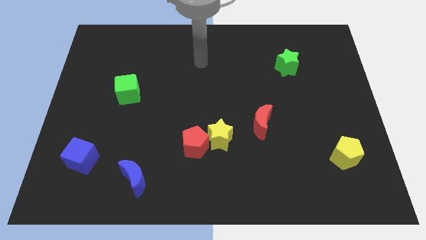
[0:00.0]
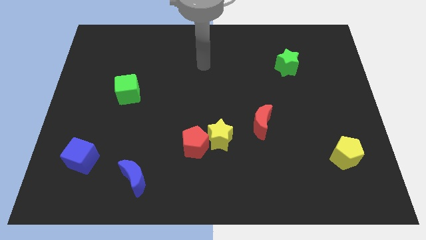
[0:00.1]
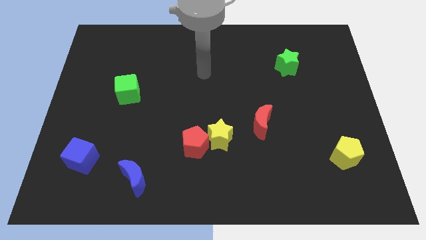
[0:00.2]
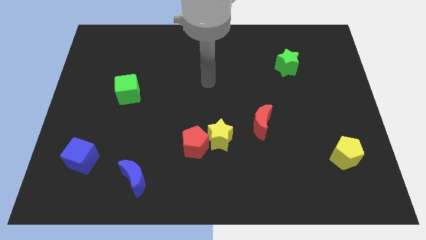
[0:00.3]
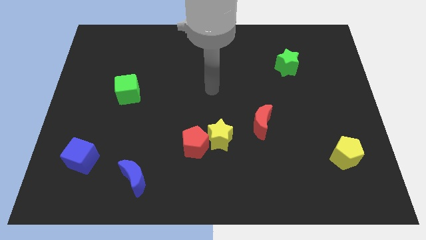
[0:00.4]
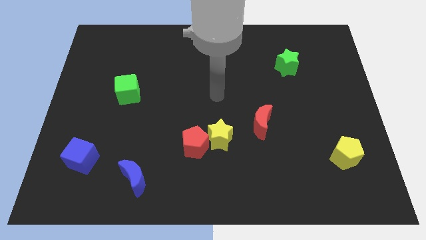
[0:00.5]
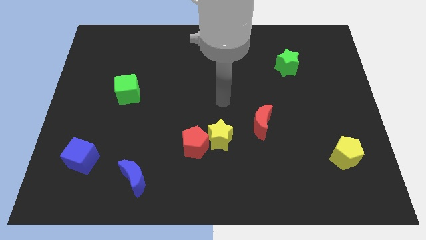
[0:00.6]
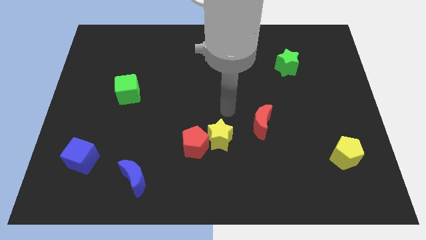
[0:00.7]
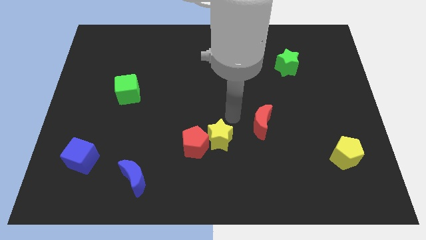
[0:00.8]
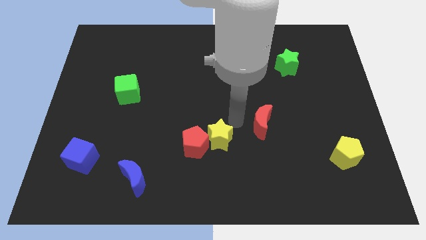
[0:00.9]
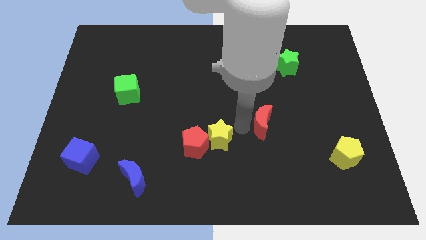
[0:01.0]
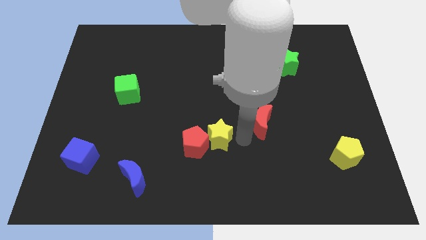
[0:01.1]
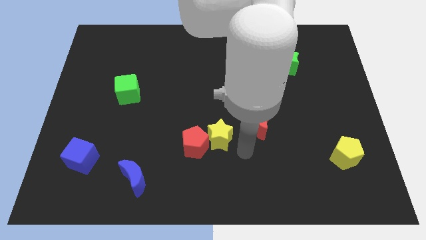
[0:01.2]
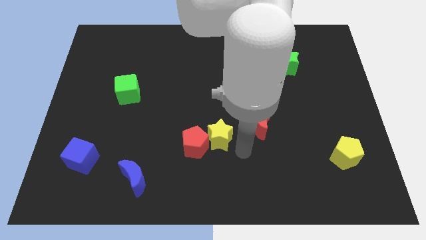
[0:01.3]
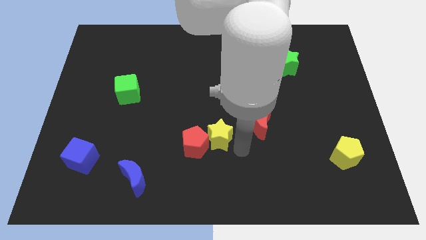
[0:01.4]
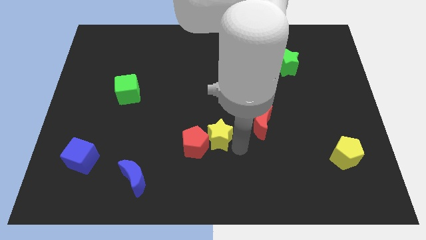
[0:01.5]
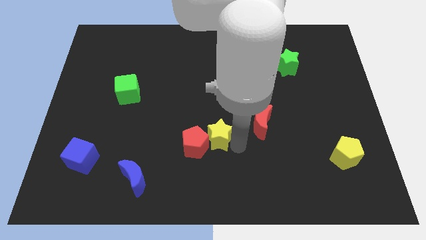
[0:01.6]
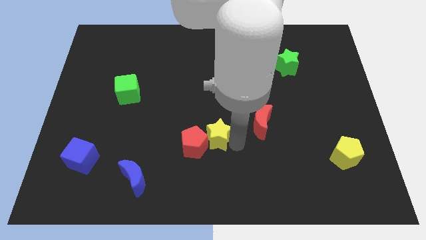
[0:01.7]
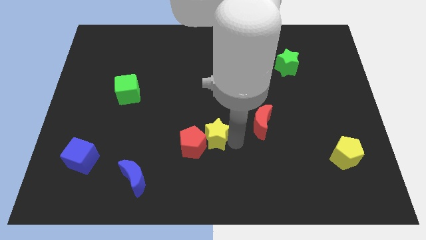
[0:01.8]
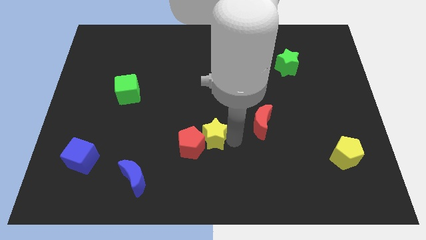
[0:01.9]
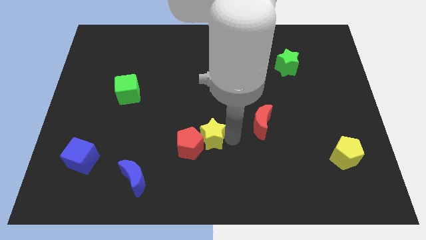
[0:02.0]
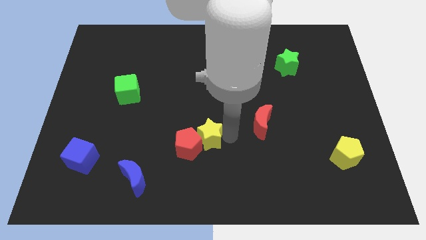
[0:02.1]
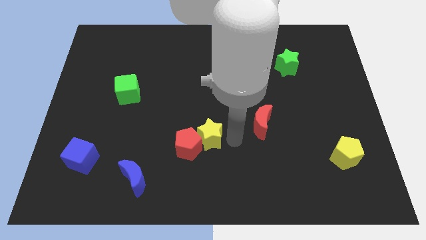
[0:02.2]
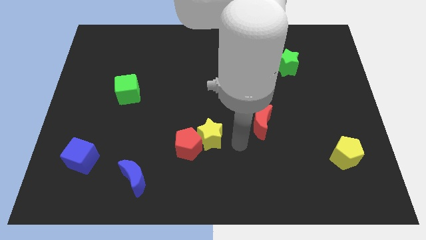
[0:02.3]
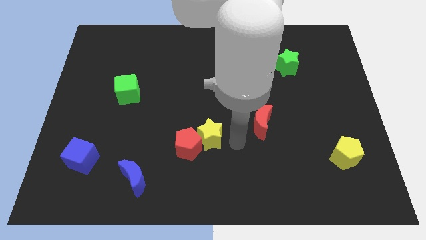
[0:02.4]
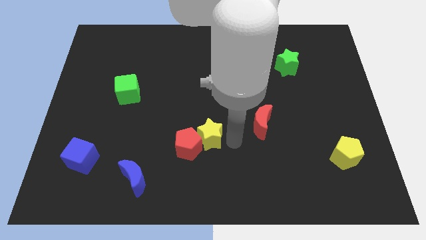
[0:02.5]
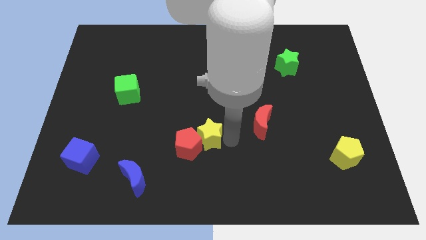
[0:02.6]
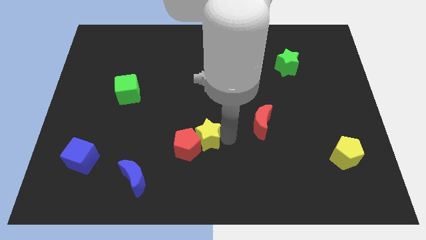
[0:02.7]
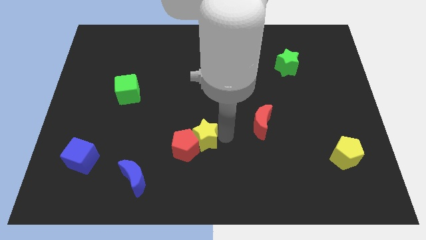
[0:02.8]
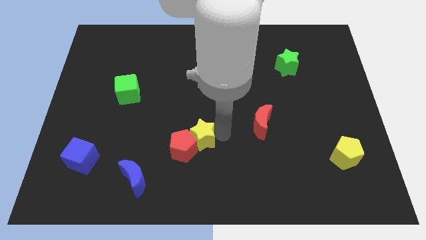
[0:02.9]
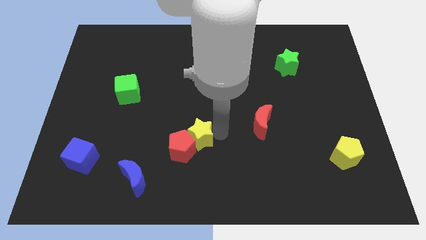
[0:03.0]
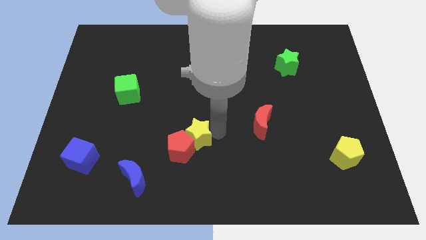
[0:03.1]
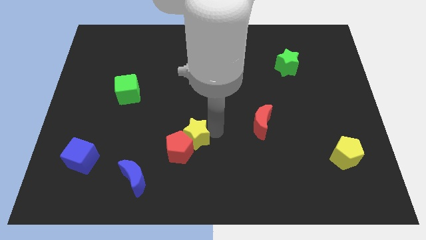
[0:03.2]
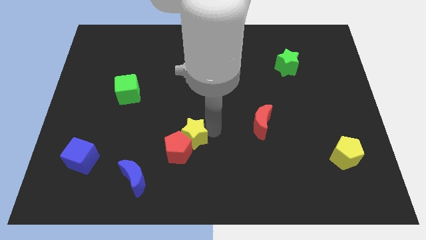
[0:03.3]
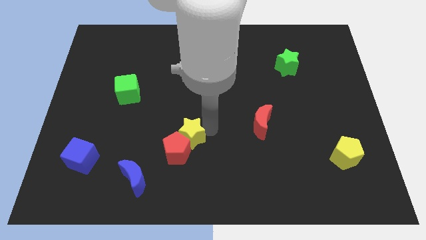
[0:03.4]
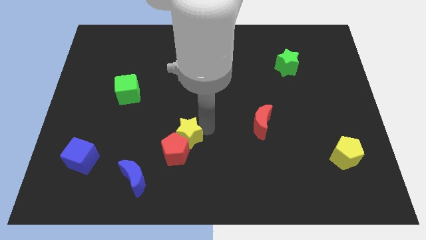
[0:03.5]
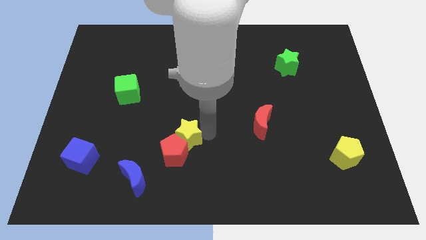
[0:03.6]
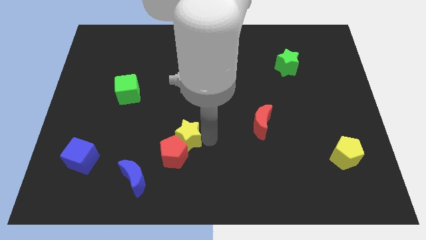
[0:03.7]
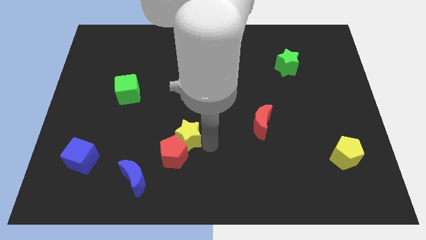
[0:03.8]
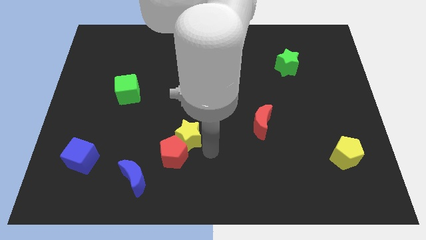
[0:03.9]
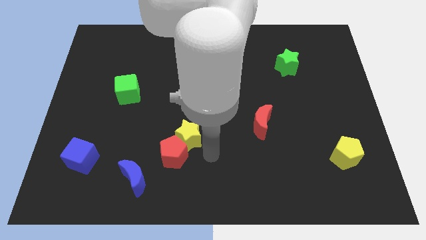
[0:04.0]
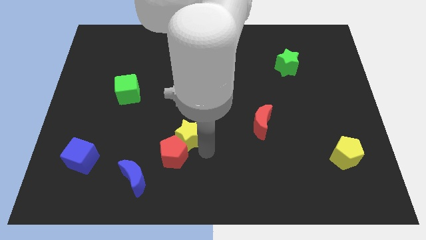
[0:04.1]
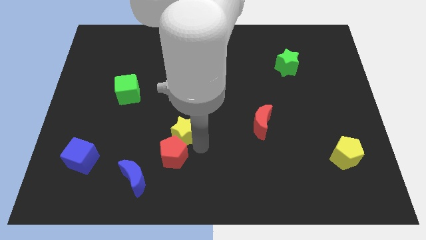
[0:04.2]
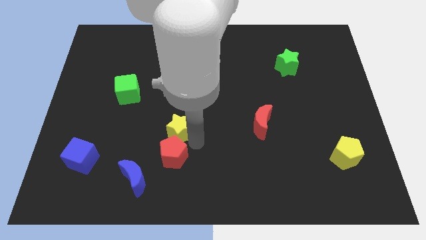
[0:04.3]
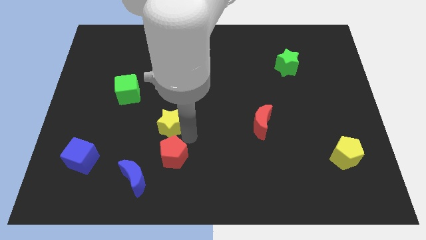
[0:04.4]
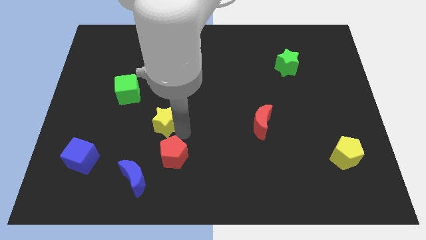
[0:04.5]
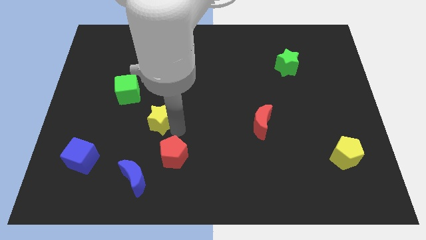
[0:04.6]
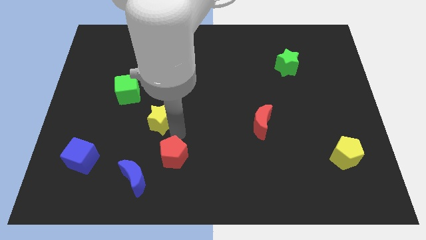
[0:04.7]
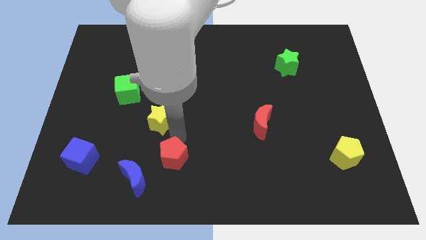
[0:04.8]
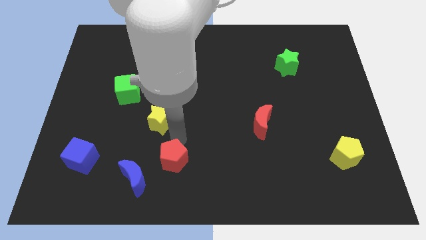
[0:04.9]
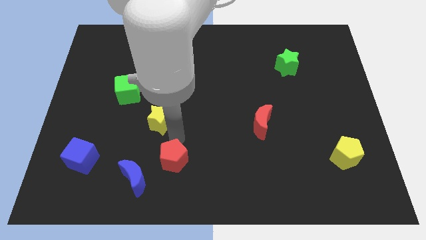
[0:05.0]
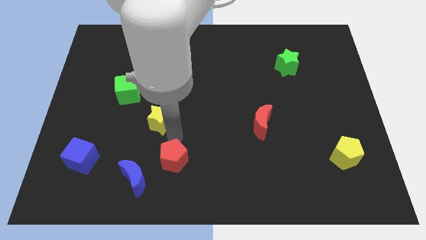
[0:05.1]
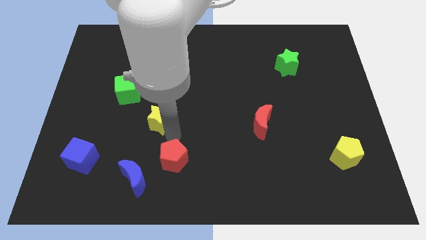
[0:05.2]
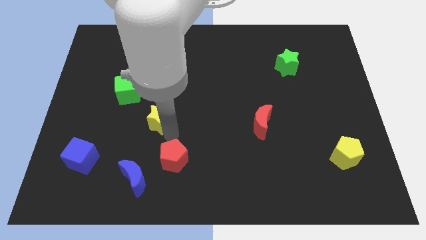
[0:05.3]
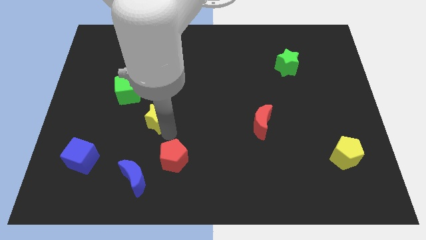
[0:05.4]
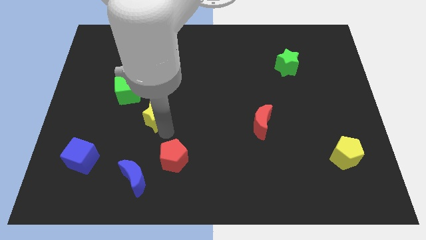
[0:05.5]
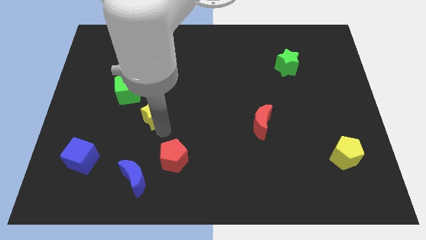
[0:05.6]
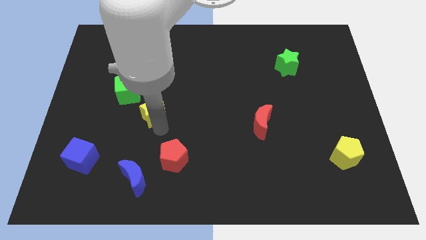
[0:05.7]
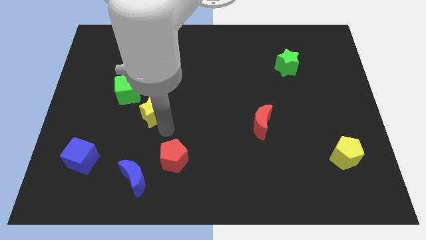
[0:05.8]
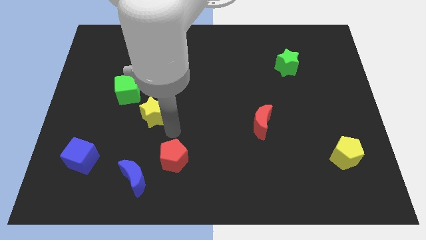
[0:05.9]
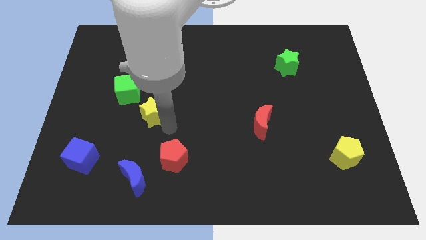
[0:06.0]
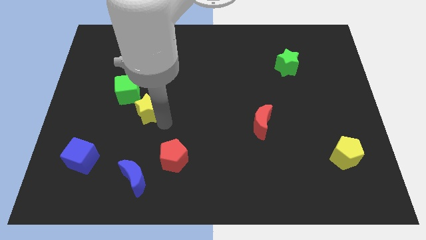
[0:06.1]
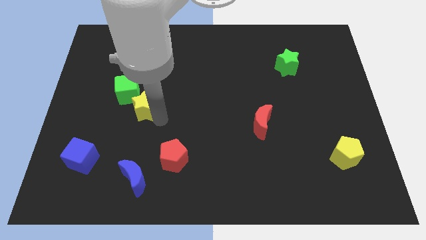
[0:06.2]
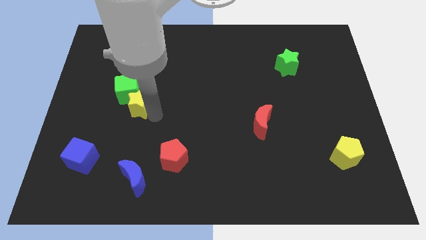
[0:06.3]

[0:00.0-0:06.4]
move the yellow star towards the green cube

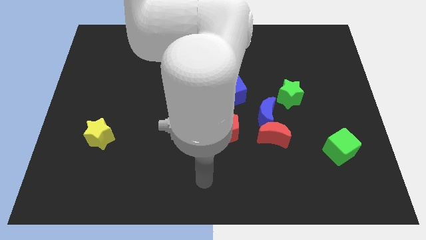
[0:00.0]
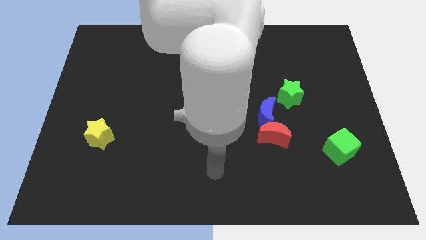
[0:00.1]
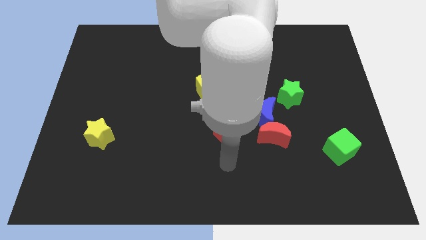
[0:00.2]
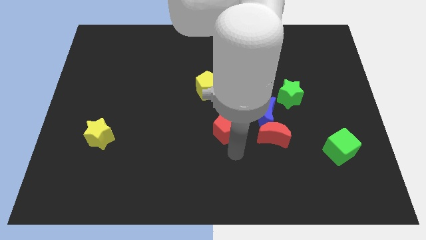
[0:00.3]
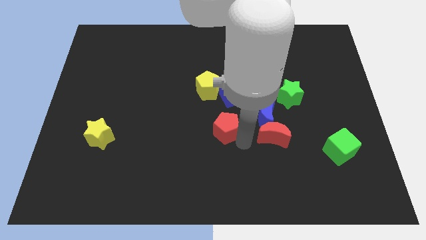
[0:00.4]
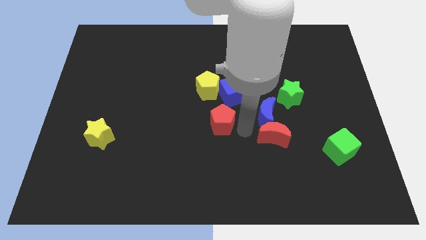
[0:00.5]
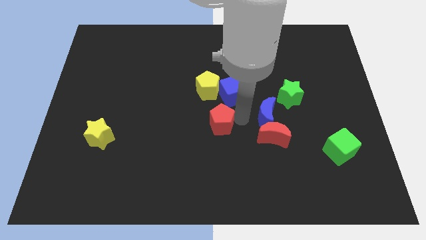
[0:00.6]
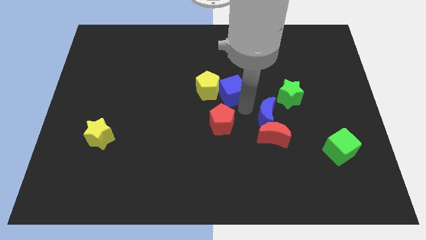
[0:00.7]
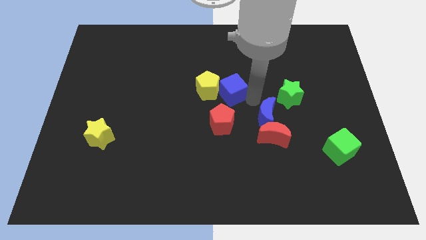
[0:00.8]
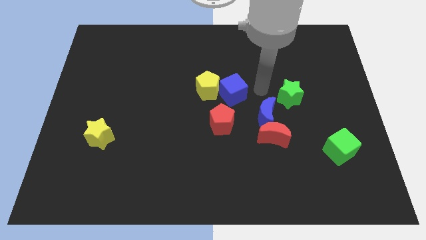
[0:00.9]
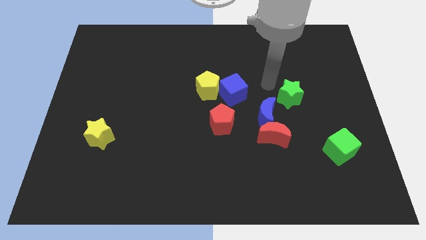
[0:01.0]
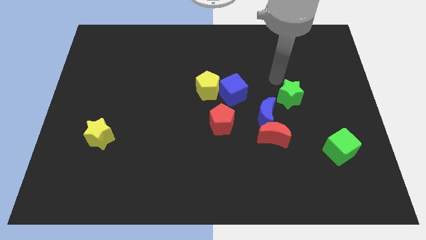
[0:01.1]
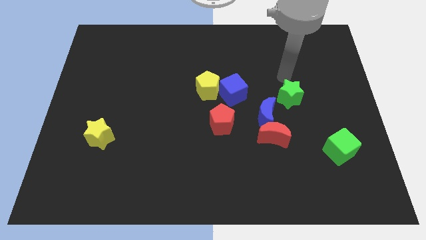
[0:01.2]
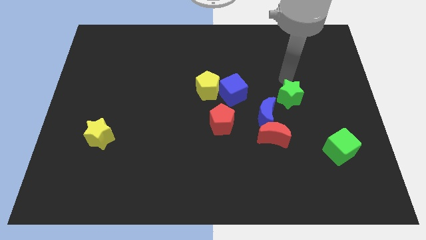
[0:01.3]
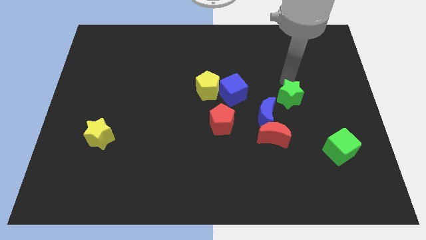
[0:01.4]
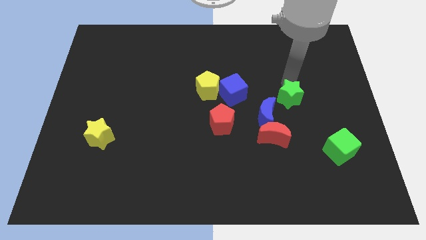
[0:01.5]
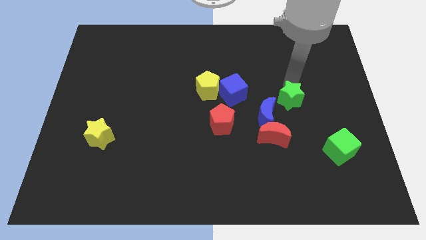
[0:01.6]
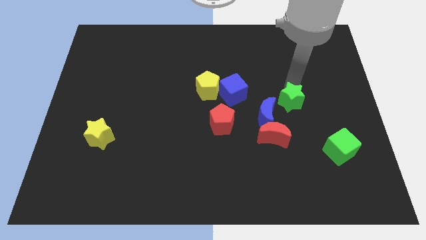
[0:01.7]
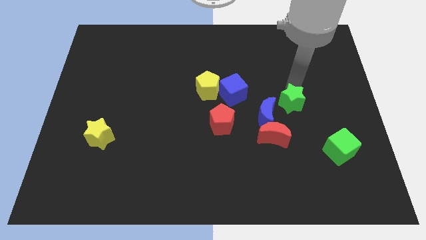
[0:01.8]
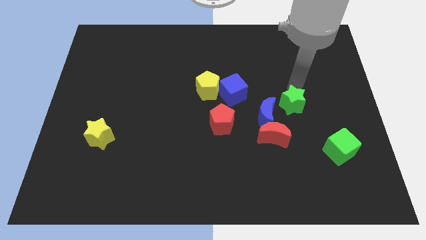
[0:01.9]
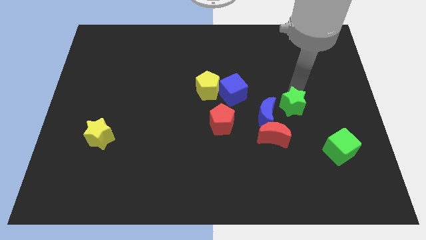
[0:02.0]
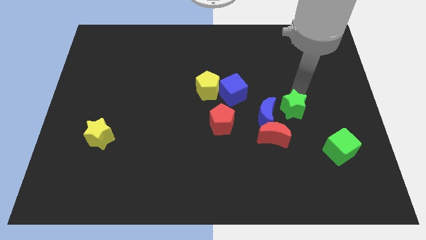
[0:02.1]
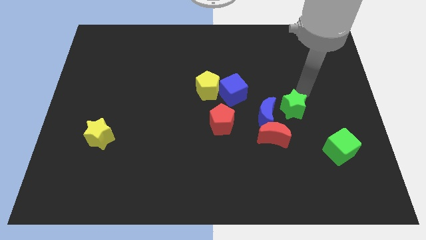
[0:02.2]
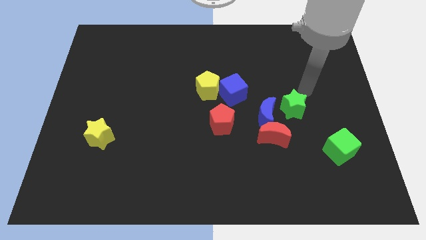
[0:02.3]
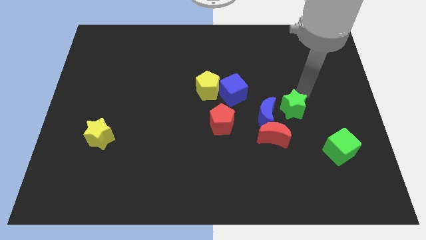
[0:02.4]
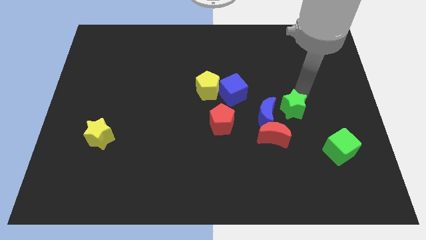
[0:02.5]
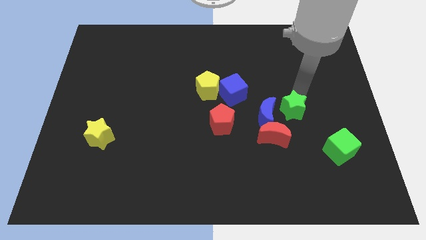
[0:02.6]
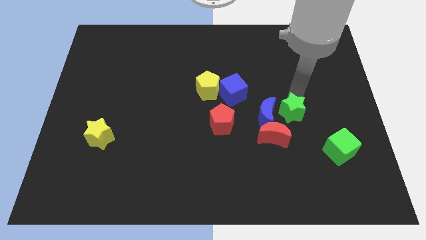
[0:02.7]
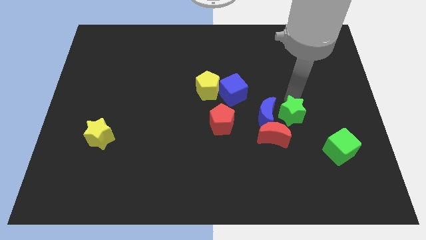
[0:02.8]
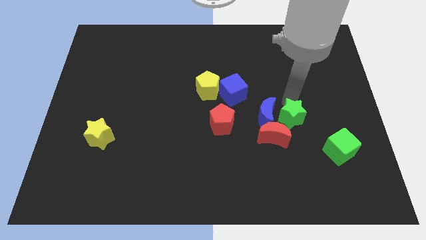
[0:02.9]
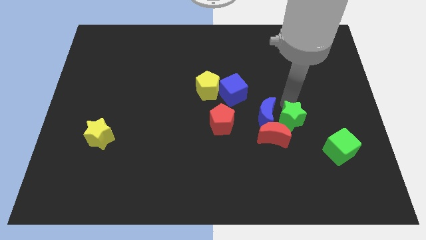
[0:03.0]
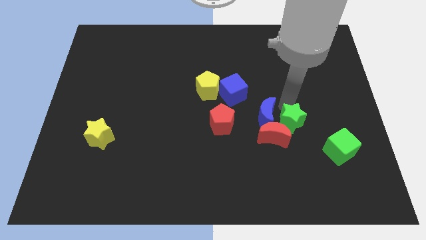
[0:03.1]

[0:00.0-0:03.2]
put the green star to the red moon
